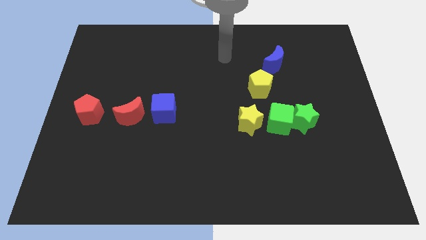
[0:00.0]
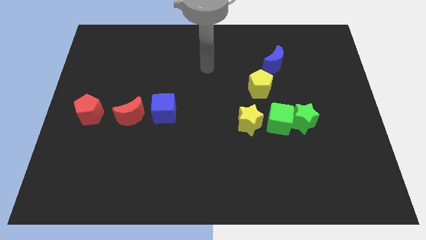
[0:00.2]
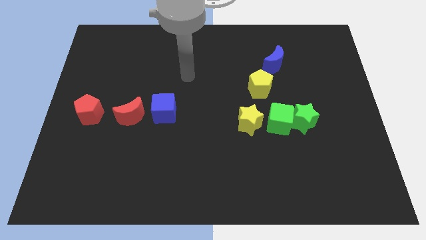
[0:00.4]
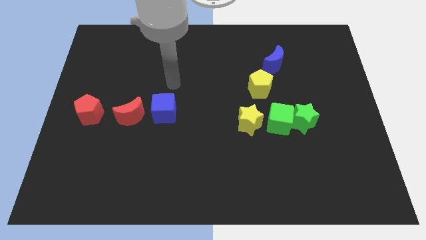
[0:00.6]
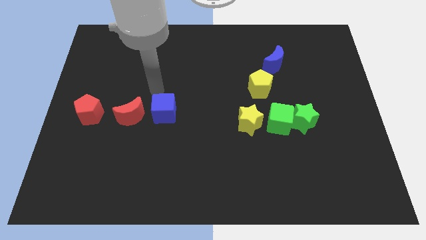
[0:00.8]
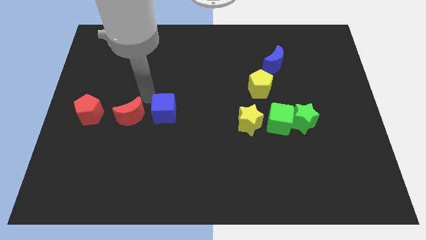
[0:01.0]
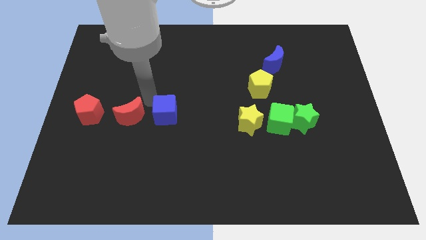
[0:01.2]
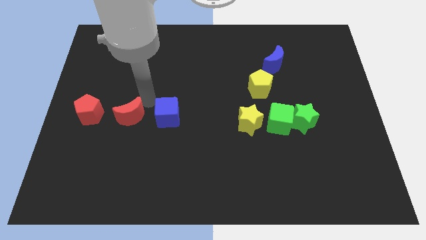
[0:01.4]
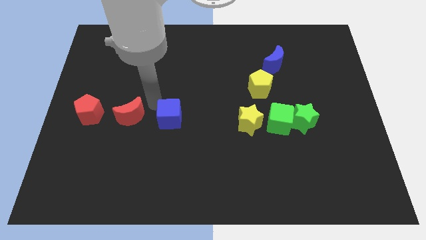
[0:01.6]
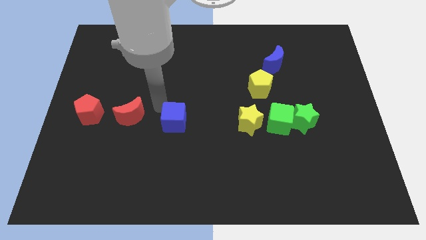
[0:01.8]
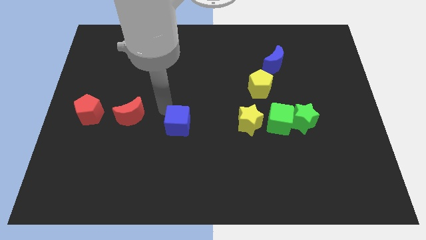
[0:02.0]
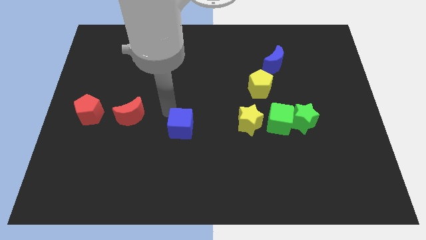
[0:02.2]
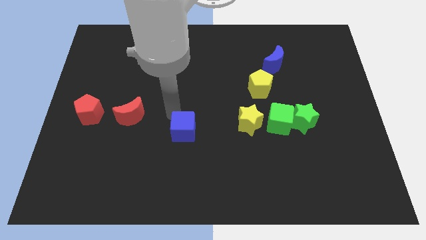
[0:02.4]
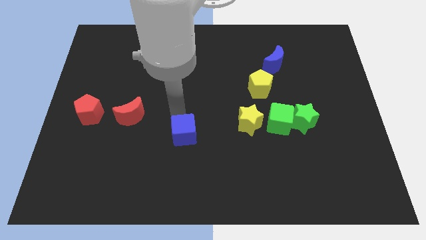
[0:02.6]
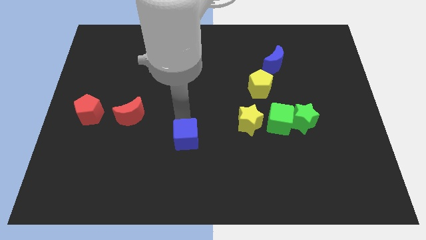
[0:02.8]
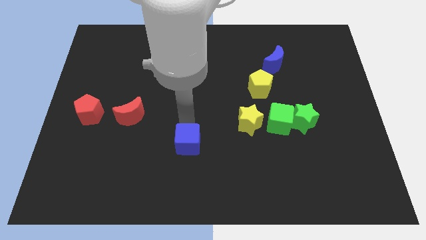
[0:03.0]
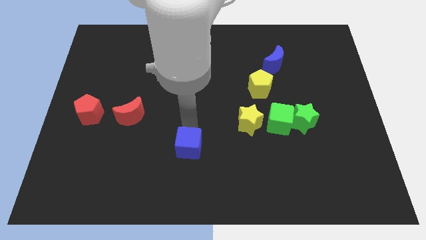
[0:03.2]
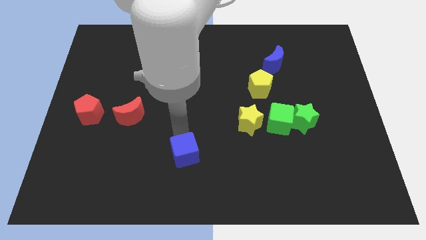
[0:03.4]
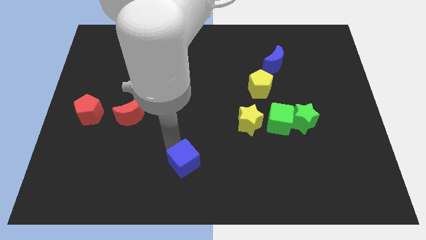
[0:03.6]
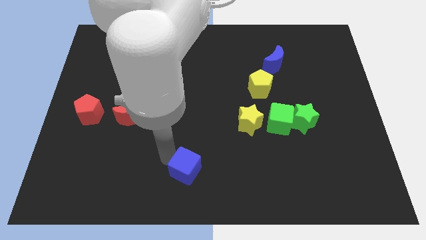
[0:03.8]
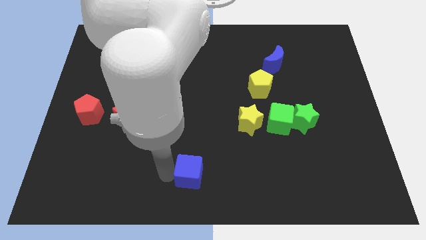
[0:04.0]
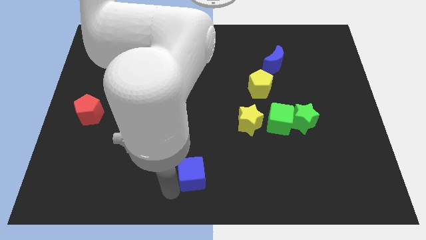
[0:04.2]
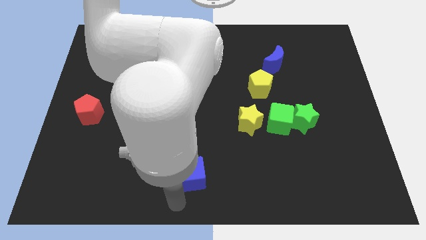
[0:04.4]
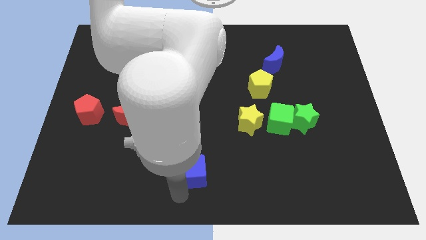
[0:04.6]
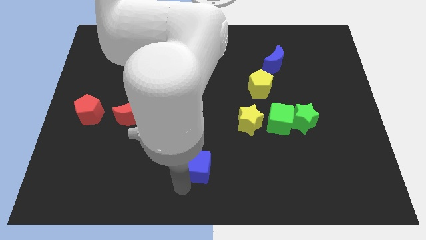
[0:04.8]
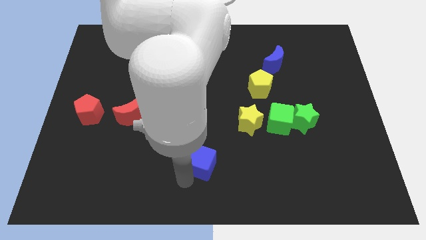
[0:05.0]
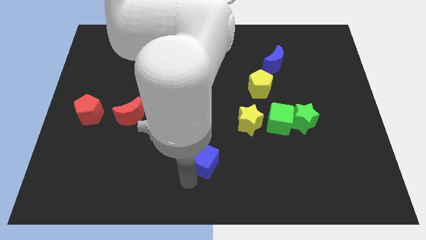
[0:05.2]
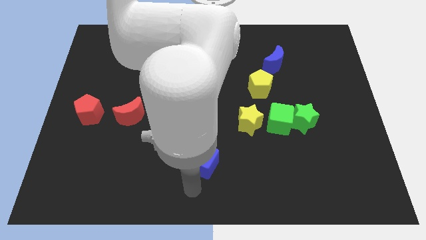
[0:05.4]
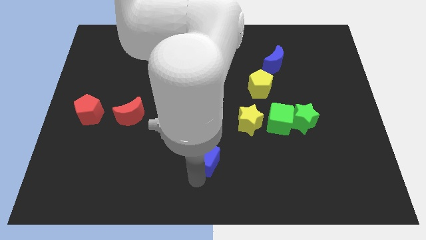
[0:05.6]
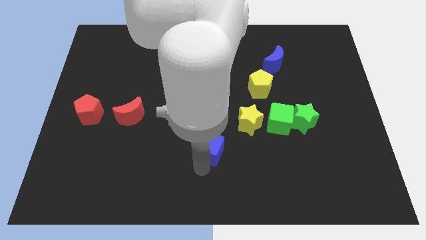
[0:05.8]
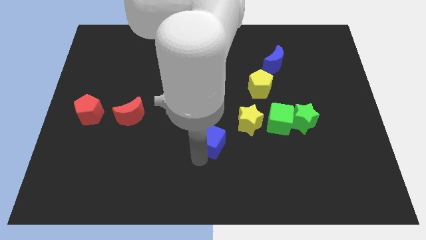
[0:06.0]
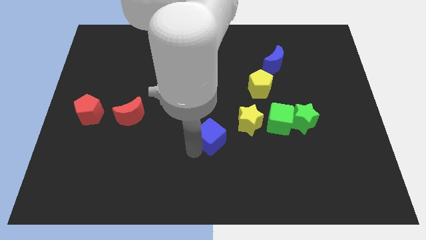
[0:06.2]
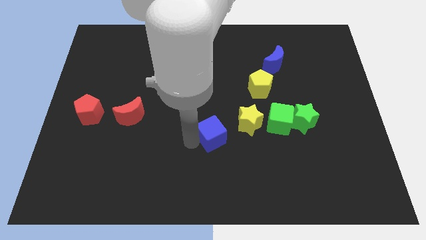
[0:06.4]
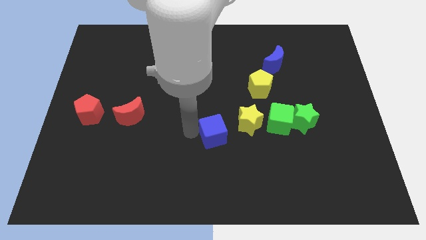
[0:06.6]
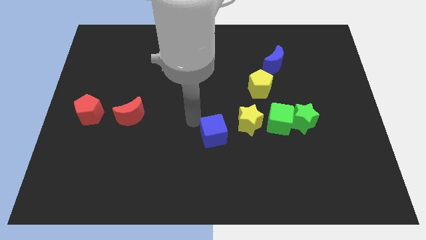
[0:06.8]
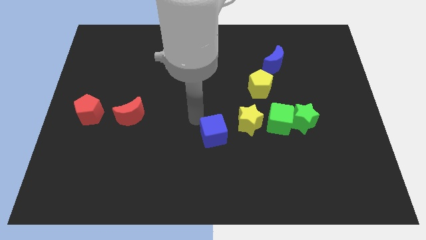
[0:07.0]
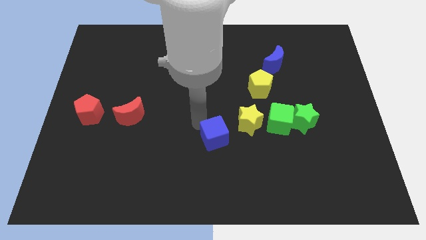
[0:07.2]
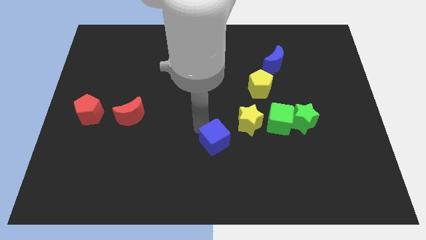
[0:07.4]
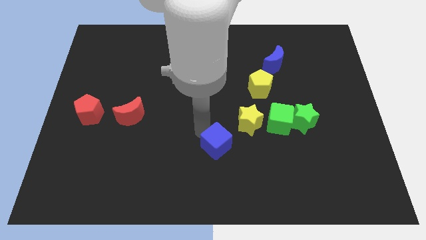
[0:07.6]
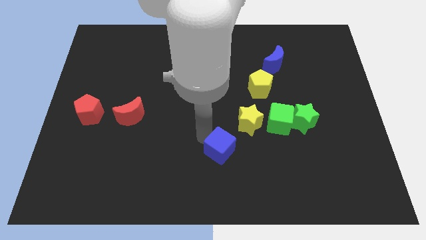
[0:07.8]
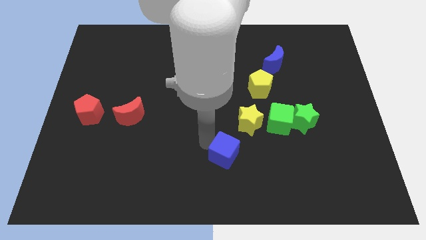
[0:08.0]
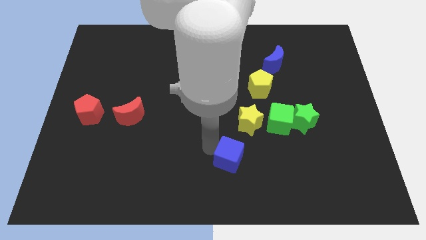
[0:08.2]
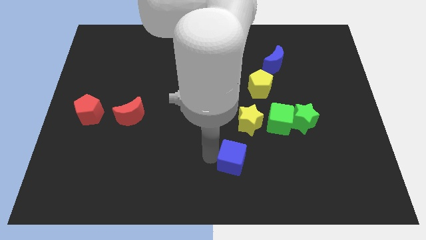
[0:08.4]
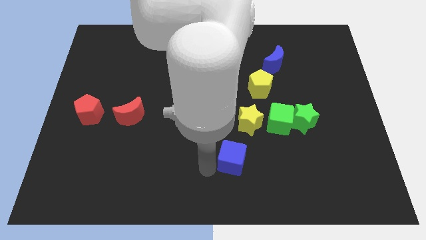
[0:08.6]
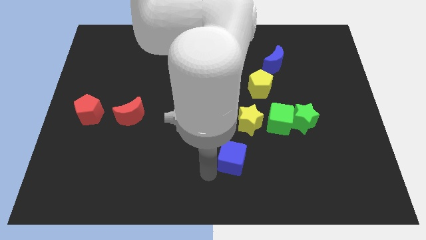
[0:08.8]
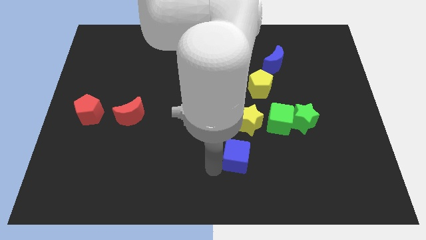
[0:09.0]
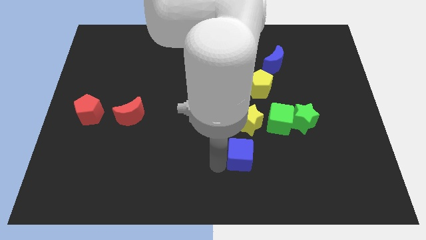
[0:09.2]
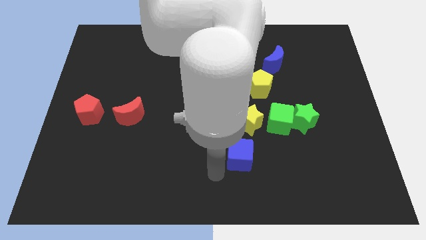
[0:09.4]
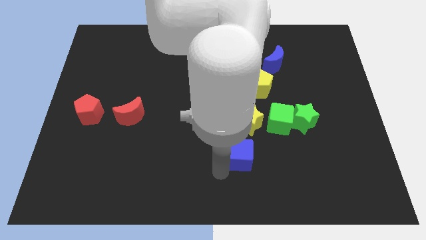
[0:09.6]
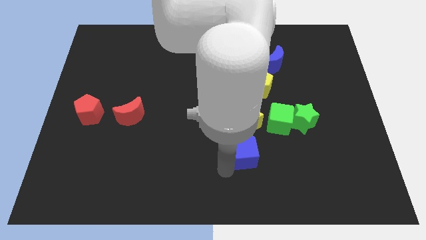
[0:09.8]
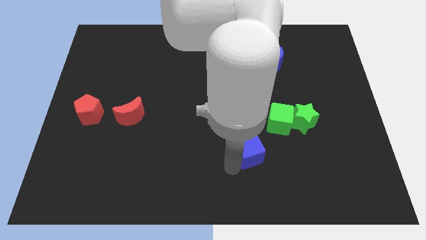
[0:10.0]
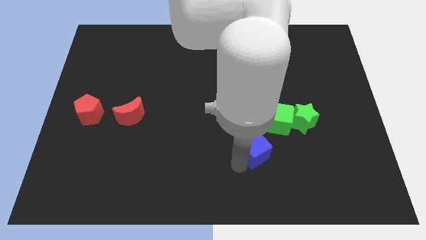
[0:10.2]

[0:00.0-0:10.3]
slide the blue cube to the bottom right of the yellow star

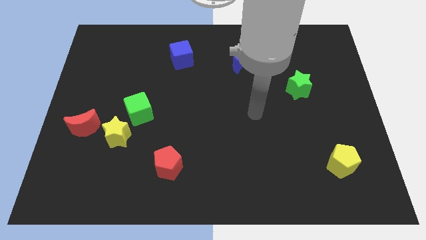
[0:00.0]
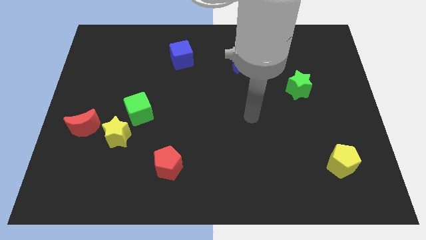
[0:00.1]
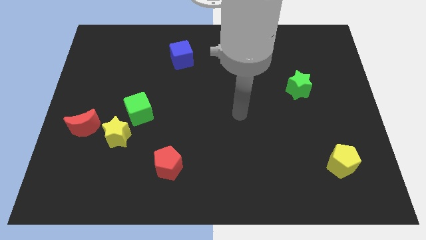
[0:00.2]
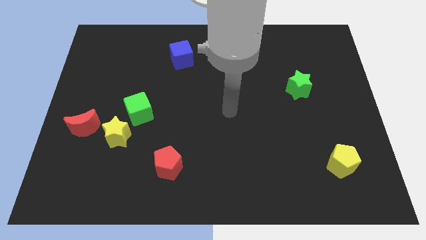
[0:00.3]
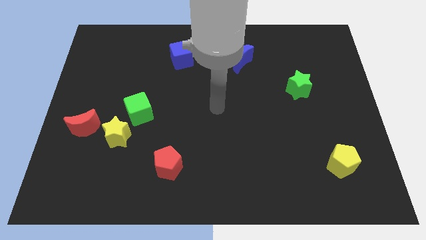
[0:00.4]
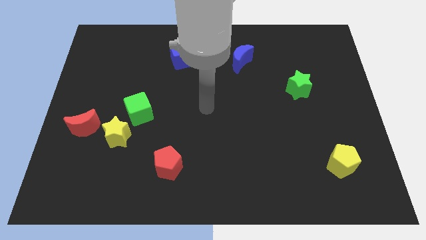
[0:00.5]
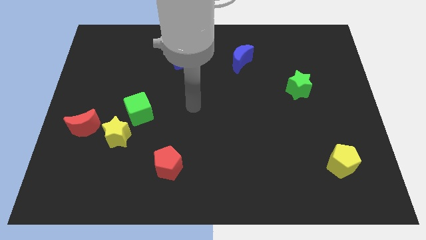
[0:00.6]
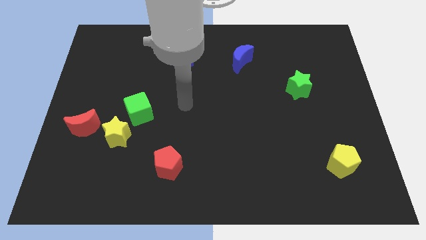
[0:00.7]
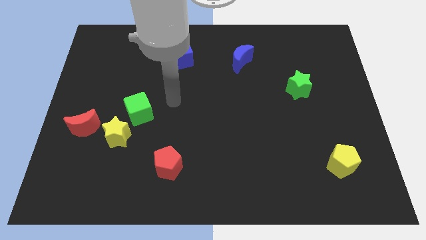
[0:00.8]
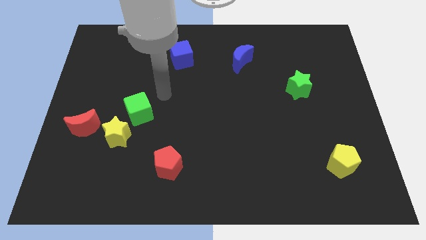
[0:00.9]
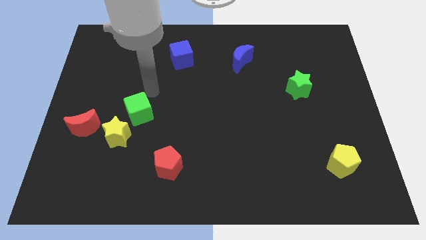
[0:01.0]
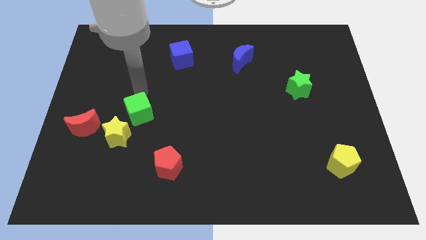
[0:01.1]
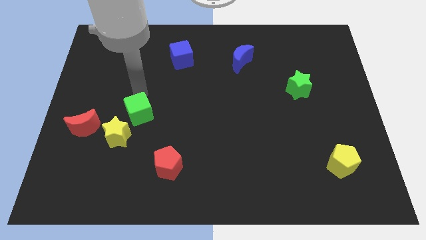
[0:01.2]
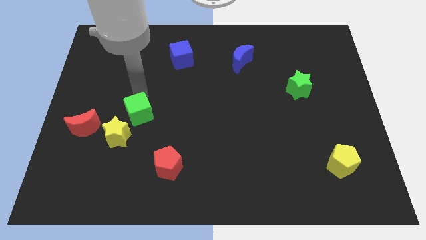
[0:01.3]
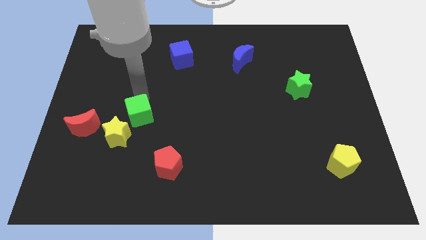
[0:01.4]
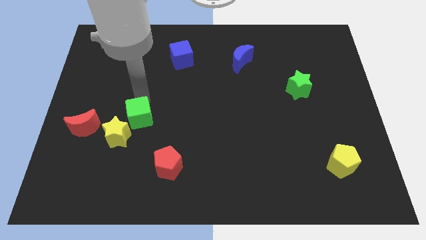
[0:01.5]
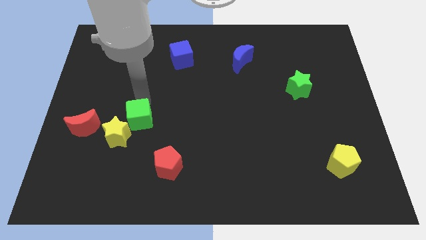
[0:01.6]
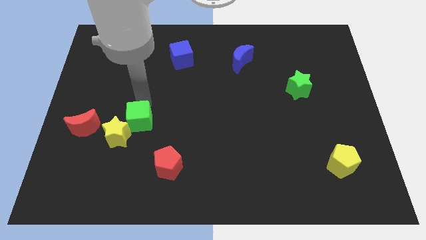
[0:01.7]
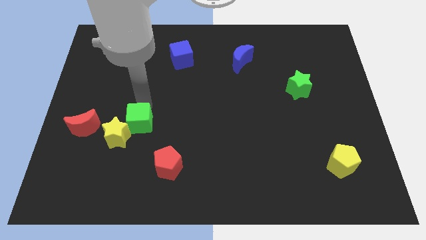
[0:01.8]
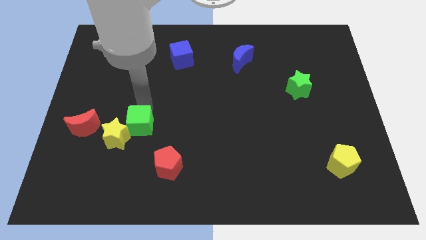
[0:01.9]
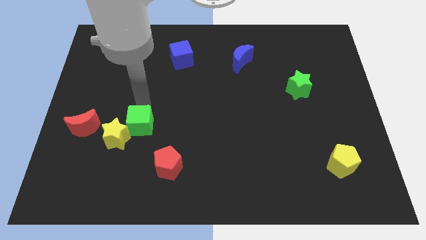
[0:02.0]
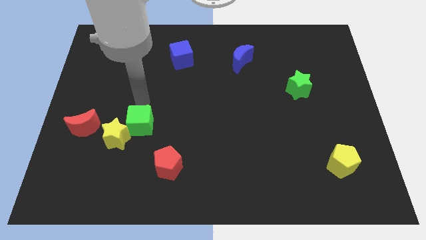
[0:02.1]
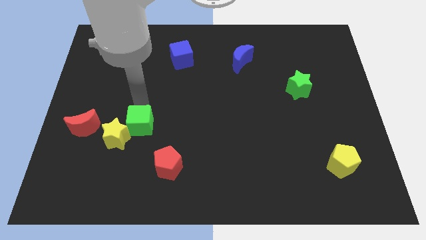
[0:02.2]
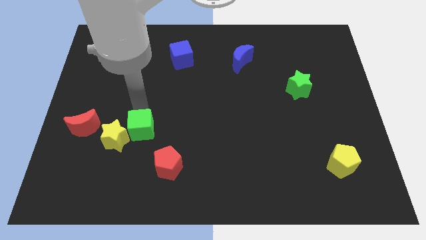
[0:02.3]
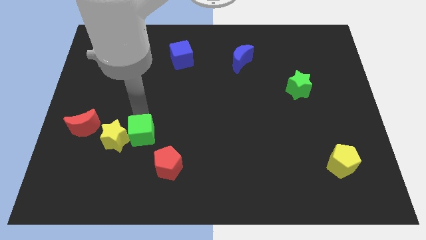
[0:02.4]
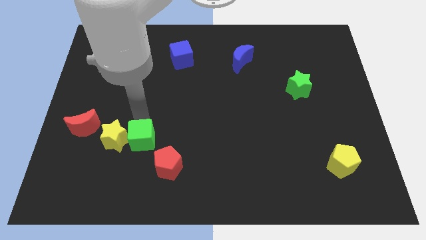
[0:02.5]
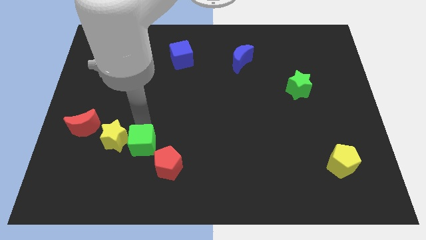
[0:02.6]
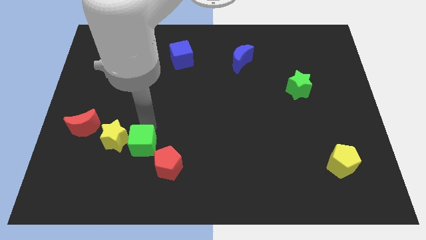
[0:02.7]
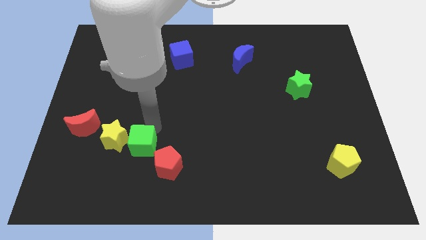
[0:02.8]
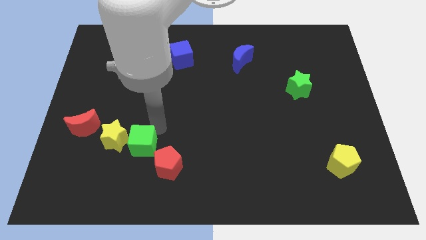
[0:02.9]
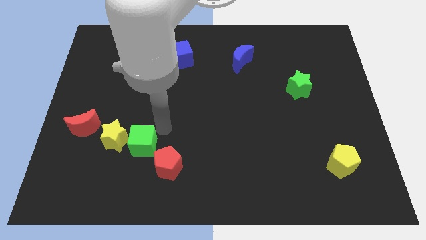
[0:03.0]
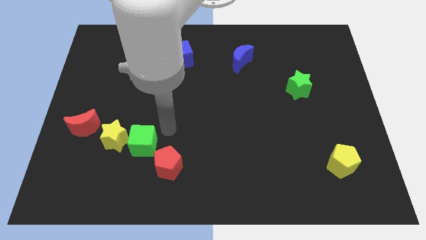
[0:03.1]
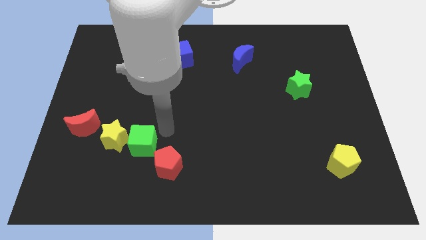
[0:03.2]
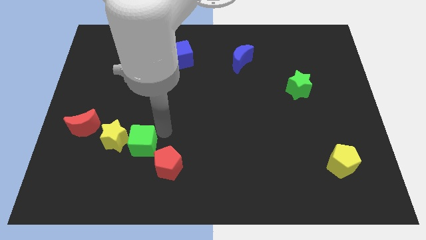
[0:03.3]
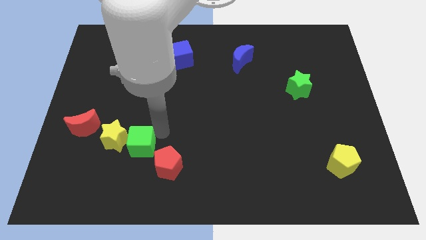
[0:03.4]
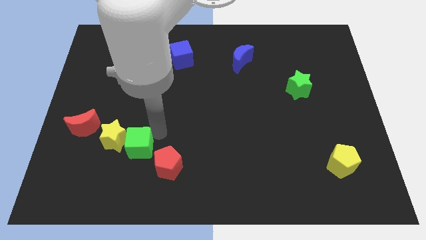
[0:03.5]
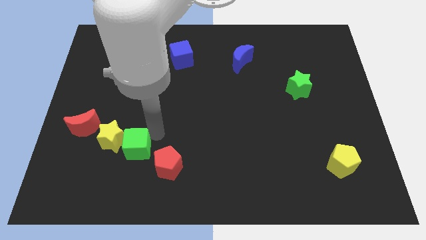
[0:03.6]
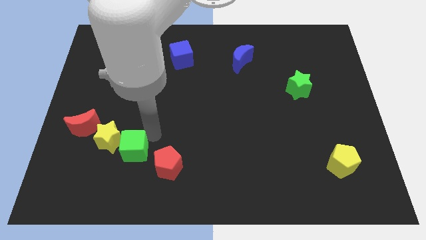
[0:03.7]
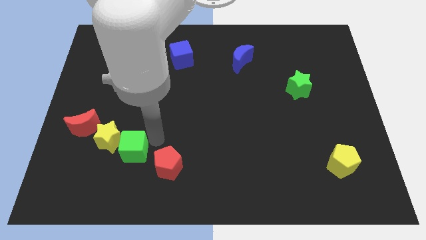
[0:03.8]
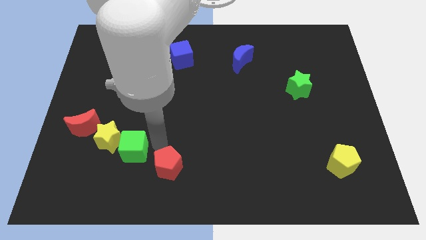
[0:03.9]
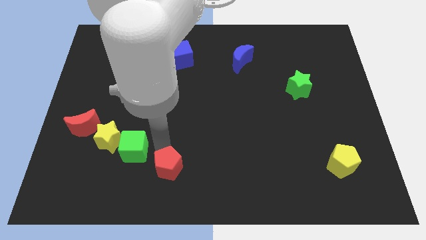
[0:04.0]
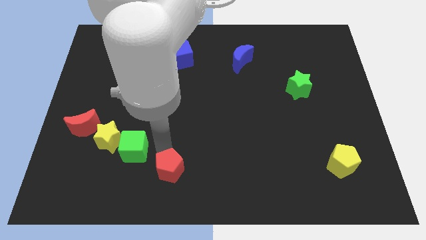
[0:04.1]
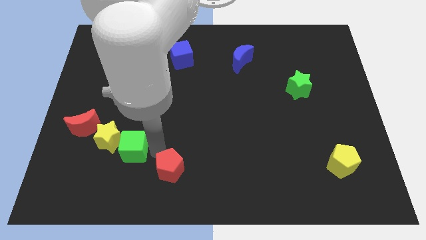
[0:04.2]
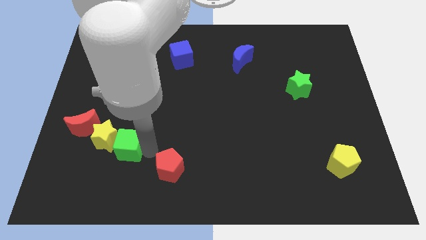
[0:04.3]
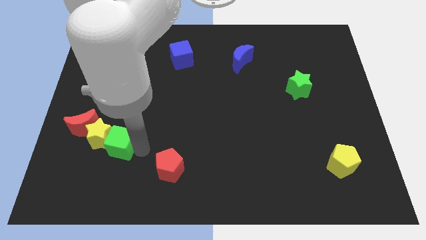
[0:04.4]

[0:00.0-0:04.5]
slide the green cube diagonally down and to the right of the red moon
